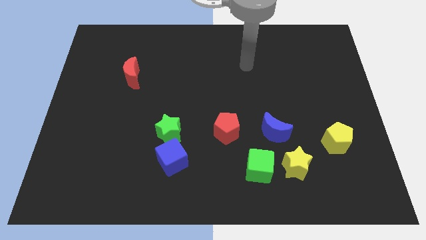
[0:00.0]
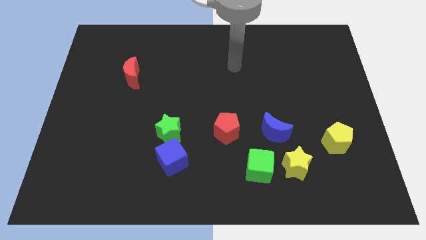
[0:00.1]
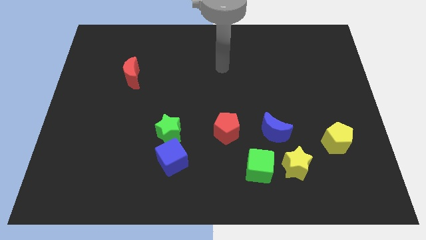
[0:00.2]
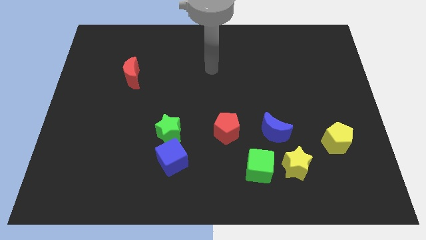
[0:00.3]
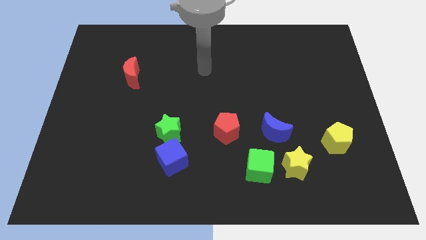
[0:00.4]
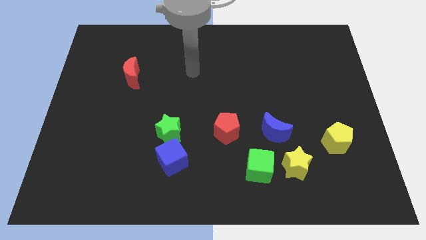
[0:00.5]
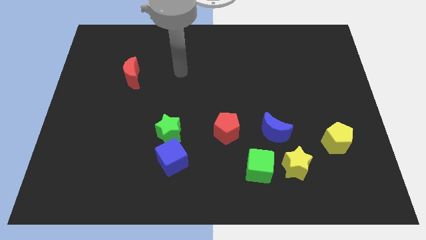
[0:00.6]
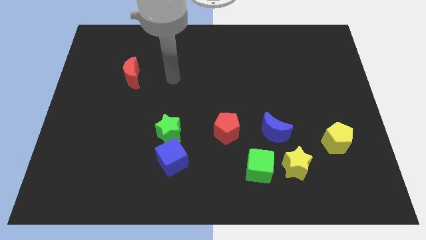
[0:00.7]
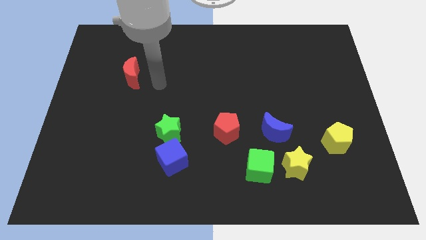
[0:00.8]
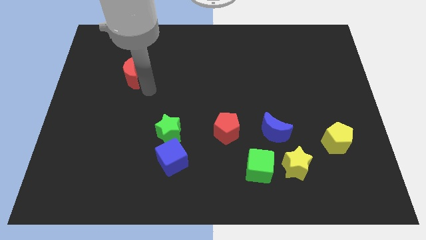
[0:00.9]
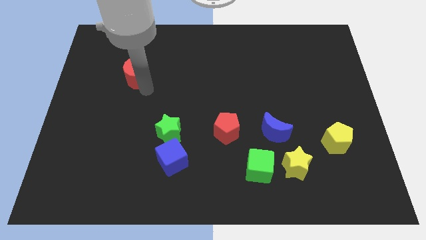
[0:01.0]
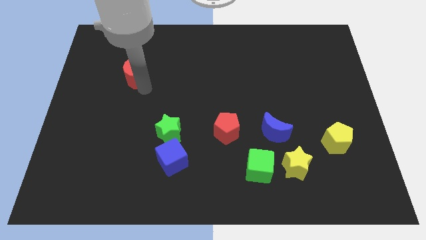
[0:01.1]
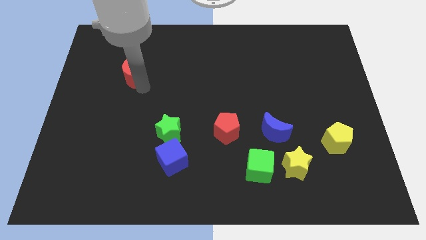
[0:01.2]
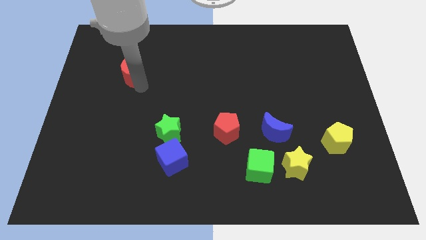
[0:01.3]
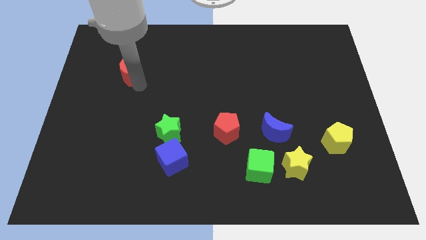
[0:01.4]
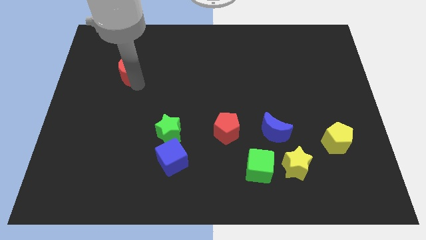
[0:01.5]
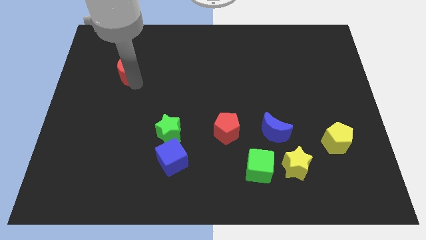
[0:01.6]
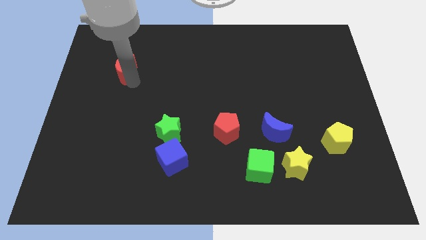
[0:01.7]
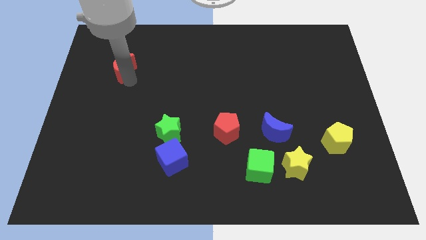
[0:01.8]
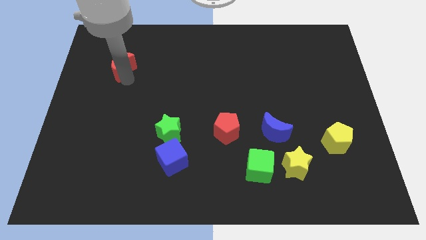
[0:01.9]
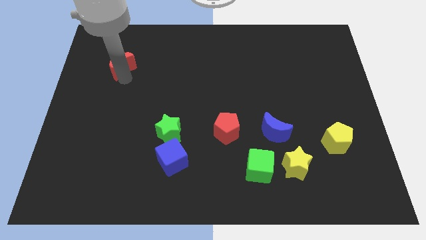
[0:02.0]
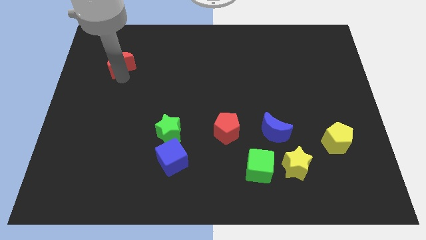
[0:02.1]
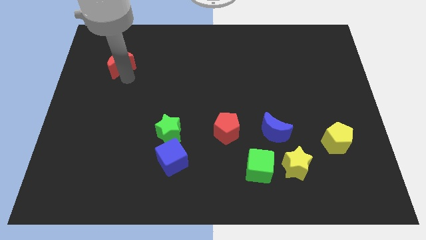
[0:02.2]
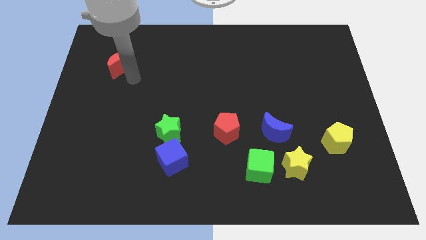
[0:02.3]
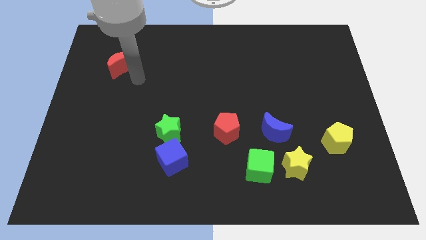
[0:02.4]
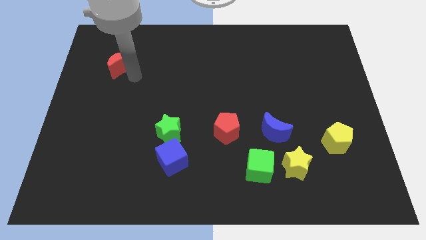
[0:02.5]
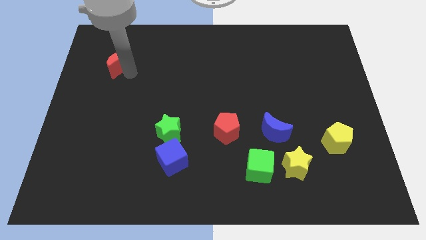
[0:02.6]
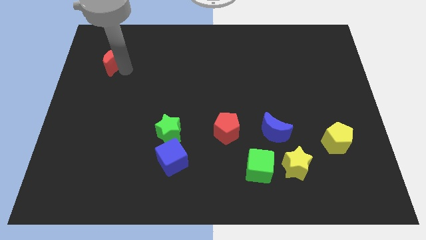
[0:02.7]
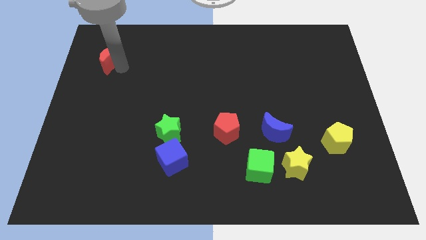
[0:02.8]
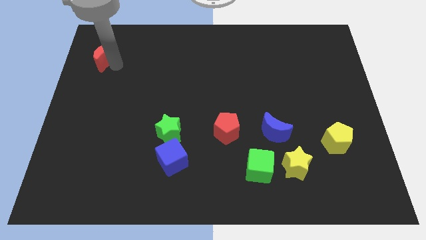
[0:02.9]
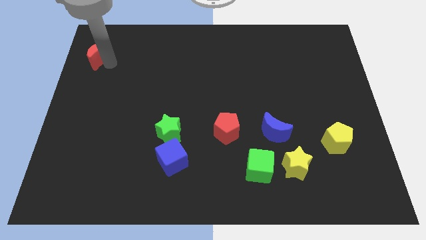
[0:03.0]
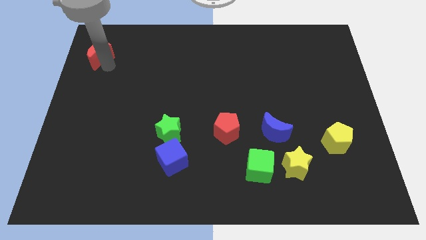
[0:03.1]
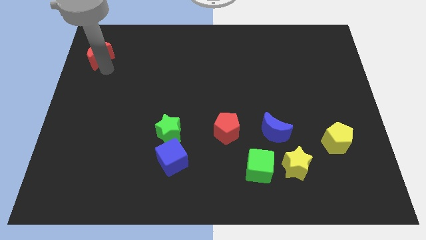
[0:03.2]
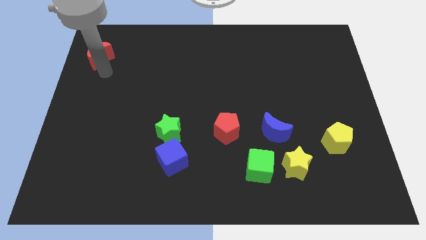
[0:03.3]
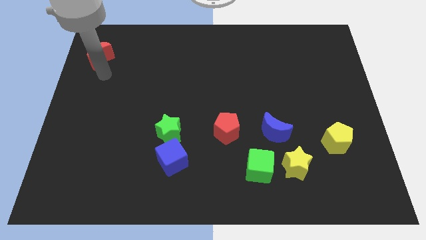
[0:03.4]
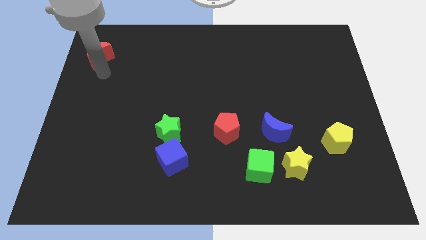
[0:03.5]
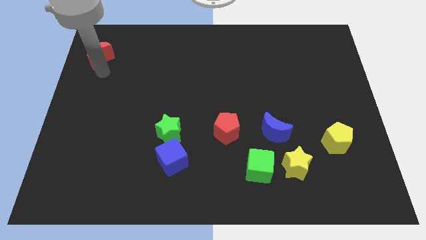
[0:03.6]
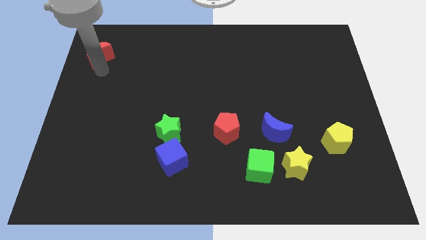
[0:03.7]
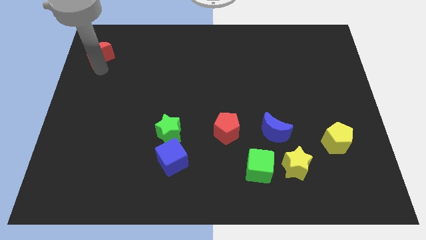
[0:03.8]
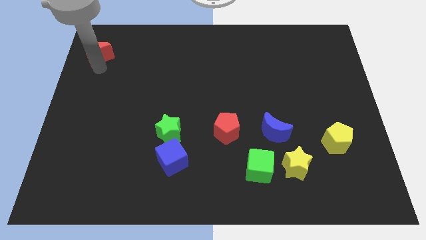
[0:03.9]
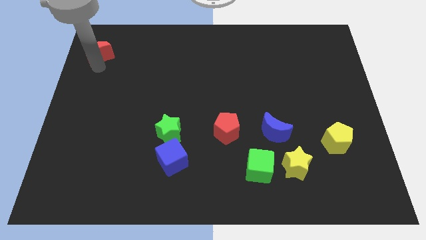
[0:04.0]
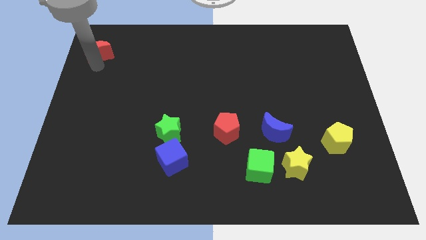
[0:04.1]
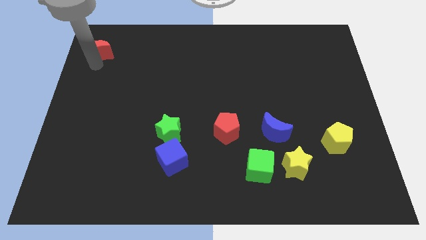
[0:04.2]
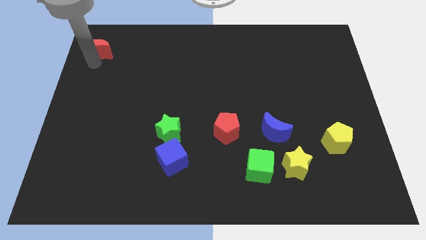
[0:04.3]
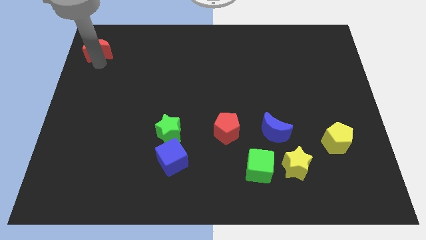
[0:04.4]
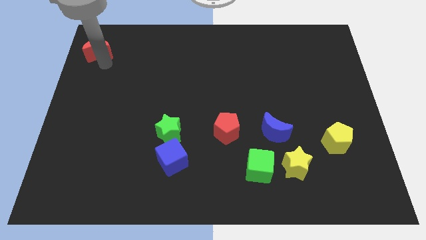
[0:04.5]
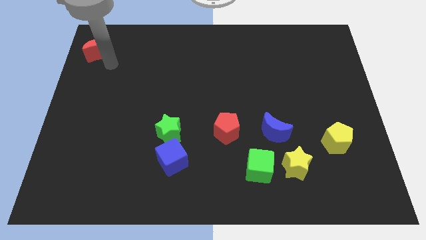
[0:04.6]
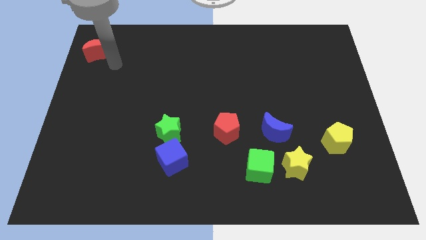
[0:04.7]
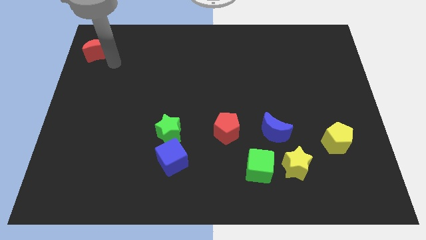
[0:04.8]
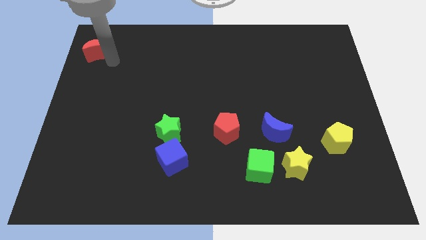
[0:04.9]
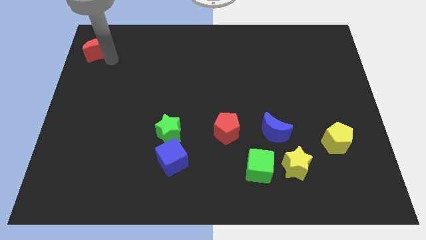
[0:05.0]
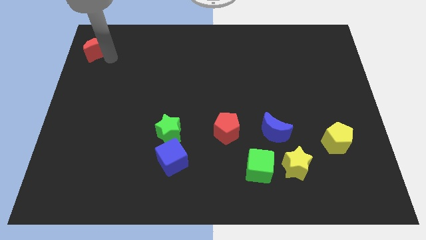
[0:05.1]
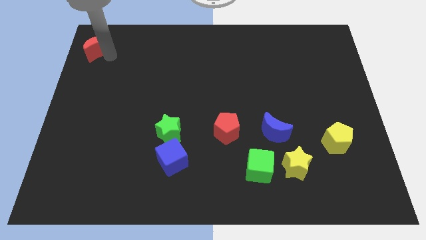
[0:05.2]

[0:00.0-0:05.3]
slide the red moon to the top left corner

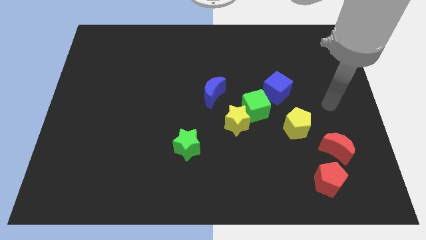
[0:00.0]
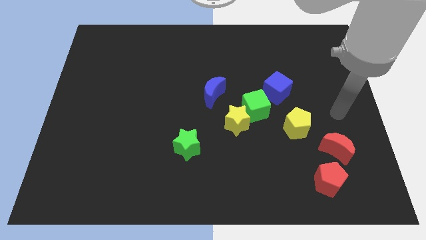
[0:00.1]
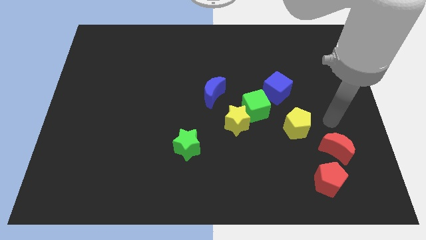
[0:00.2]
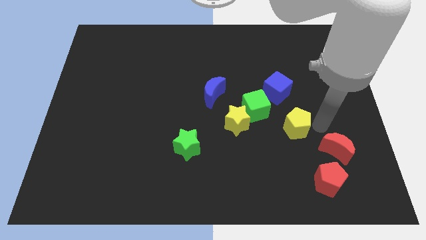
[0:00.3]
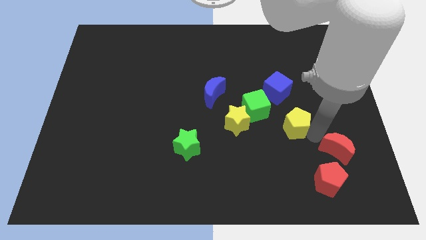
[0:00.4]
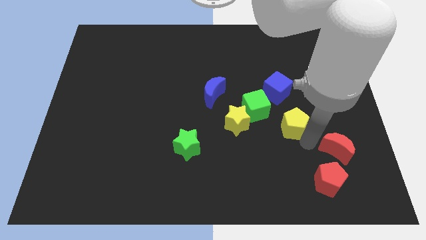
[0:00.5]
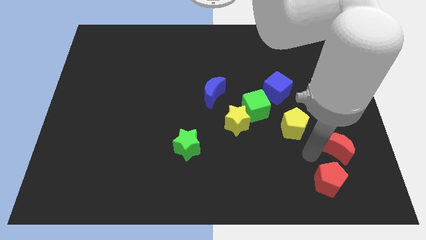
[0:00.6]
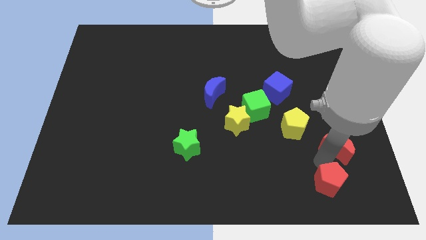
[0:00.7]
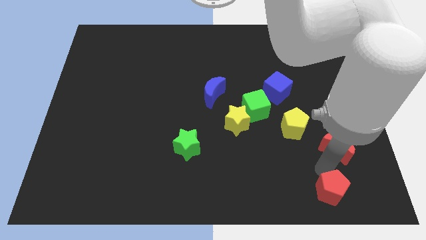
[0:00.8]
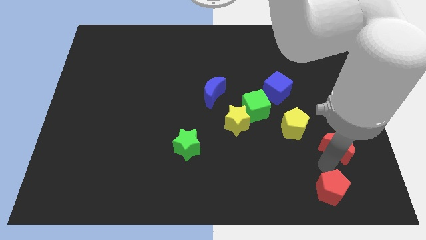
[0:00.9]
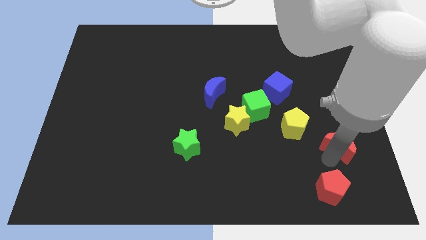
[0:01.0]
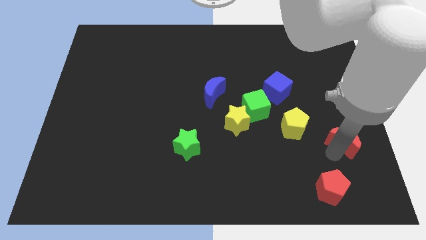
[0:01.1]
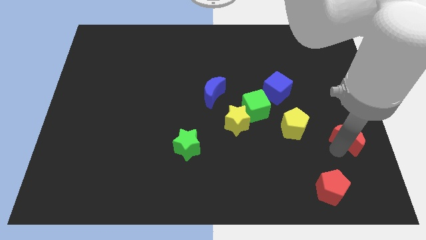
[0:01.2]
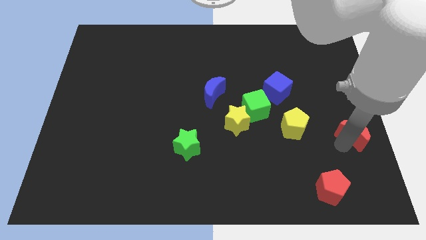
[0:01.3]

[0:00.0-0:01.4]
put the red moon to the center right
